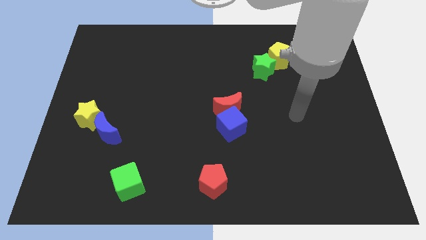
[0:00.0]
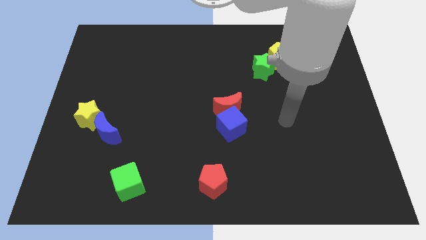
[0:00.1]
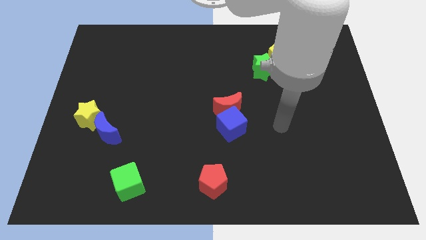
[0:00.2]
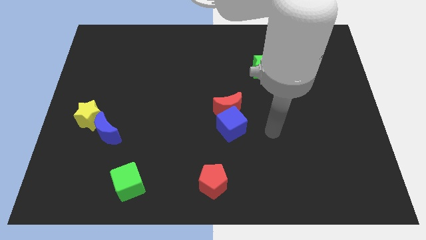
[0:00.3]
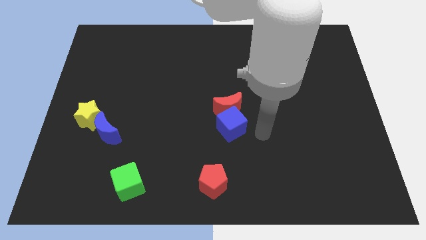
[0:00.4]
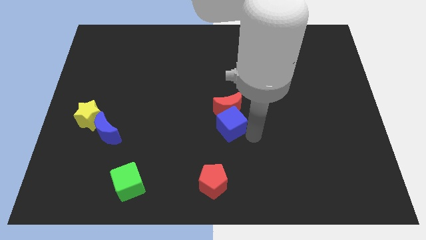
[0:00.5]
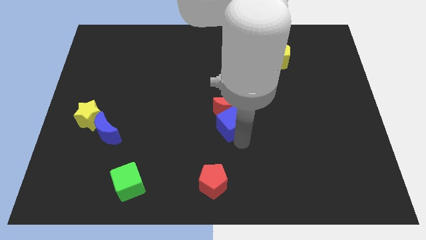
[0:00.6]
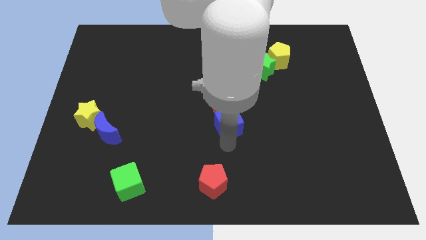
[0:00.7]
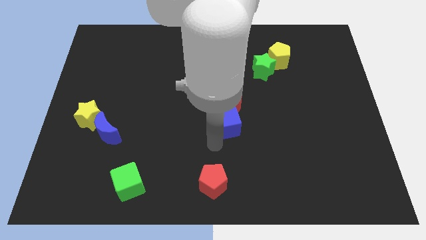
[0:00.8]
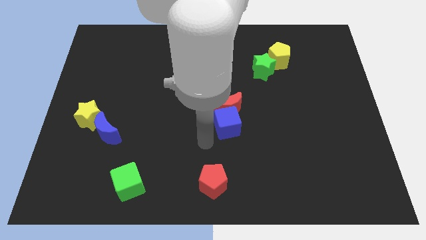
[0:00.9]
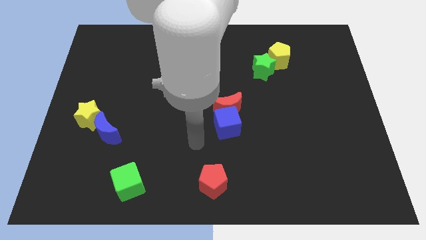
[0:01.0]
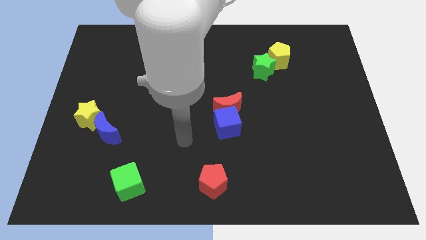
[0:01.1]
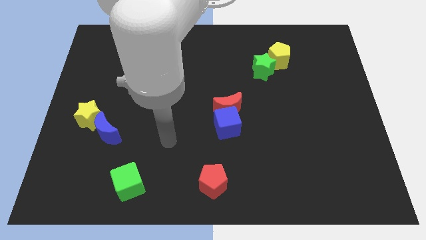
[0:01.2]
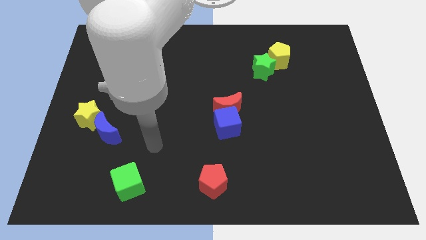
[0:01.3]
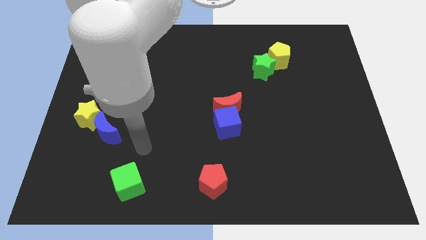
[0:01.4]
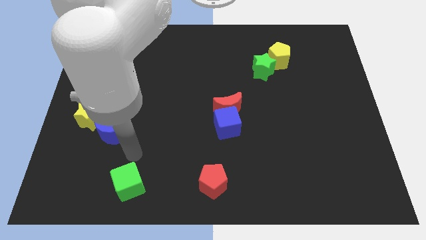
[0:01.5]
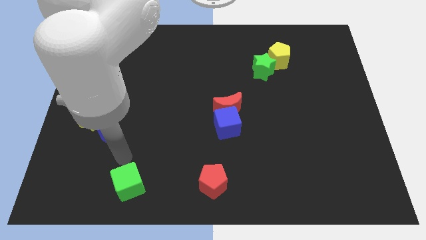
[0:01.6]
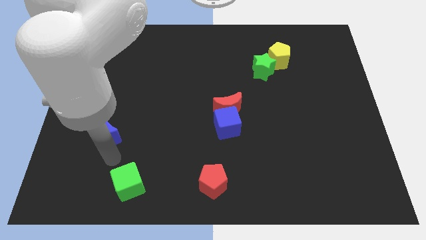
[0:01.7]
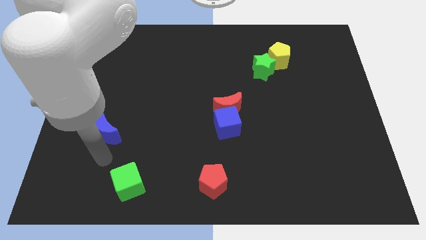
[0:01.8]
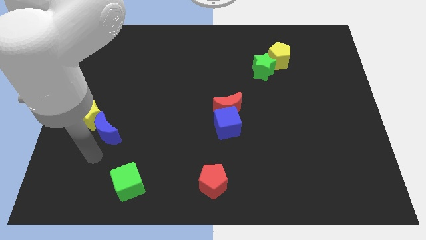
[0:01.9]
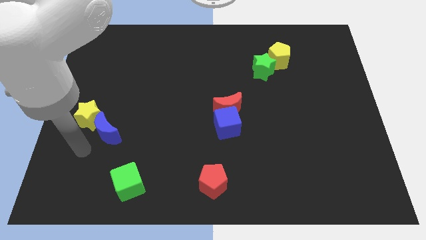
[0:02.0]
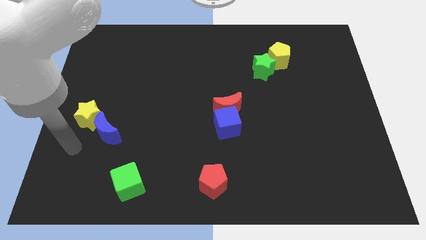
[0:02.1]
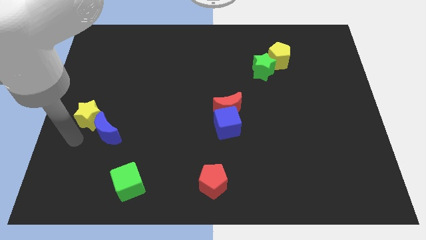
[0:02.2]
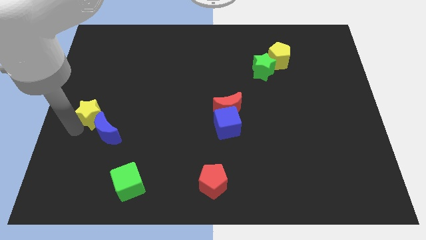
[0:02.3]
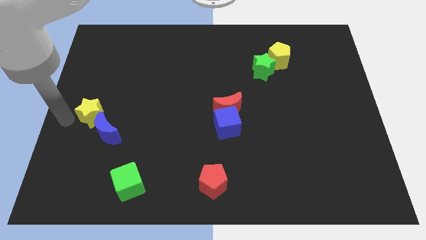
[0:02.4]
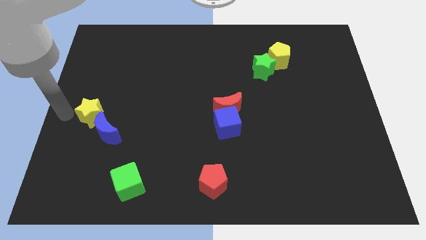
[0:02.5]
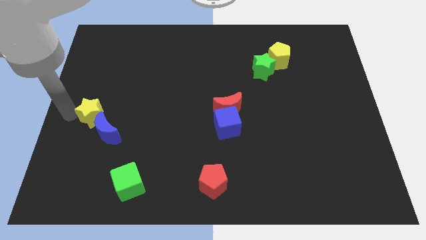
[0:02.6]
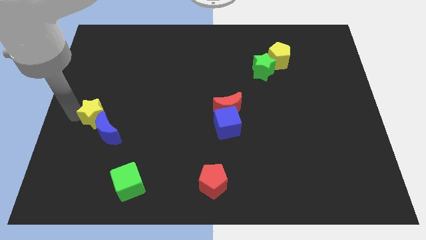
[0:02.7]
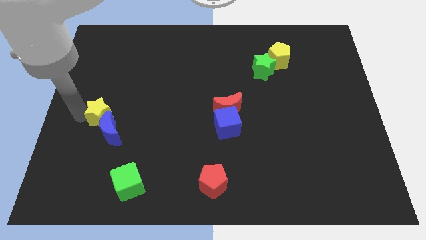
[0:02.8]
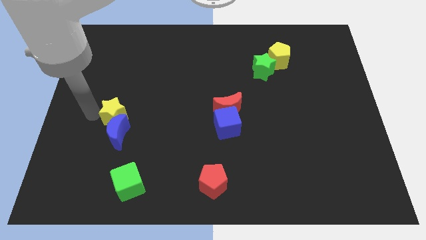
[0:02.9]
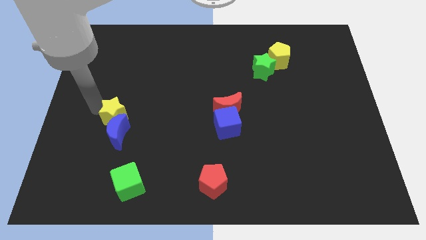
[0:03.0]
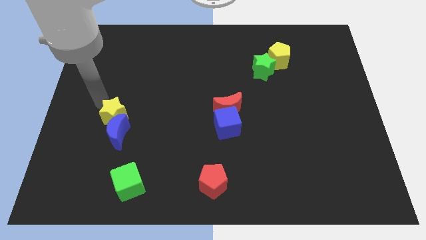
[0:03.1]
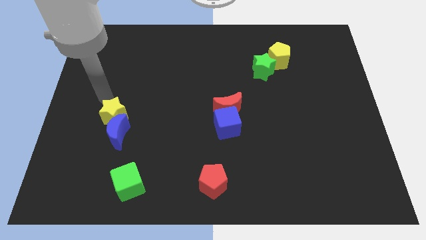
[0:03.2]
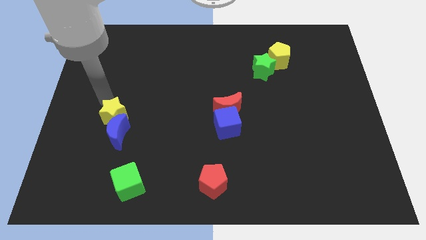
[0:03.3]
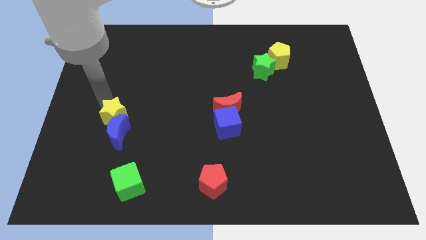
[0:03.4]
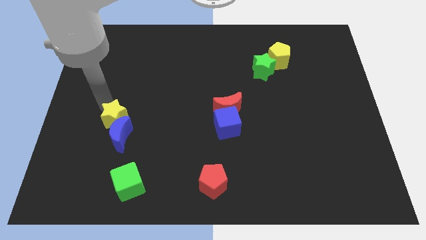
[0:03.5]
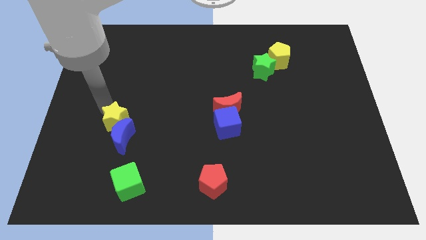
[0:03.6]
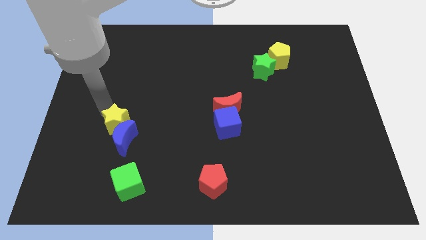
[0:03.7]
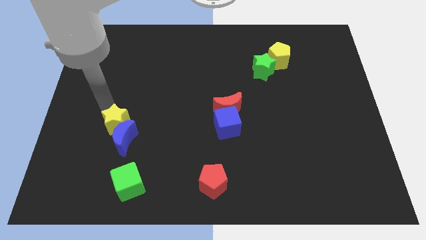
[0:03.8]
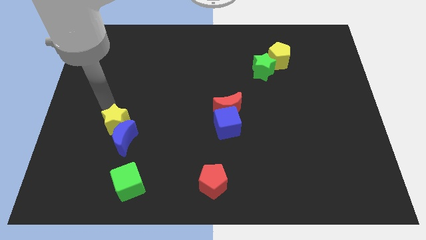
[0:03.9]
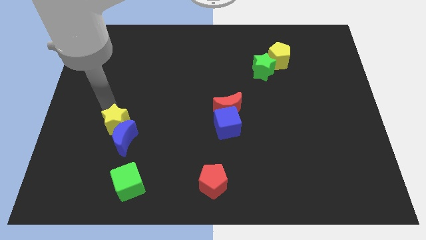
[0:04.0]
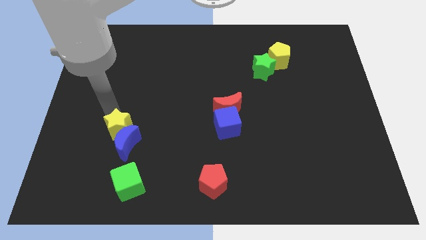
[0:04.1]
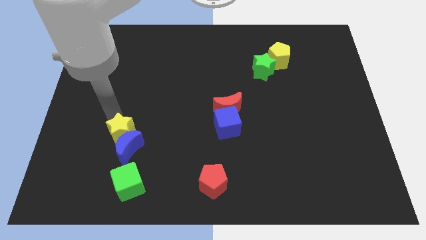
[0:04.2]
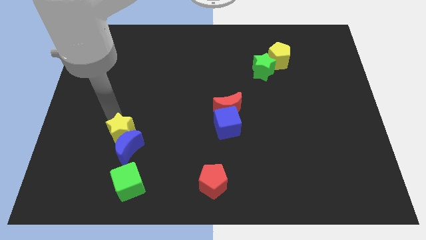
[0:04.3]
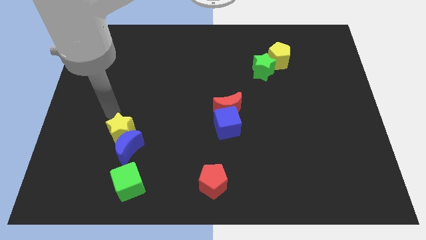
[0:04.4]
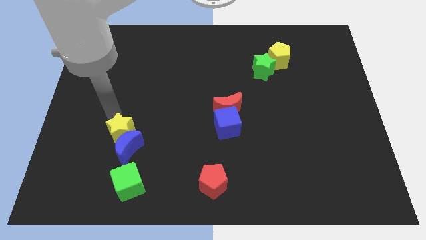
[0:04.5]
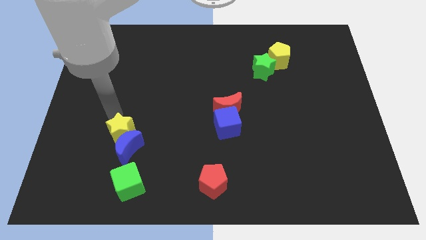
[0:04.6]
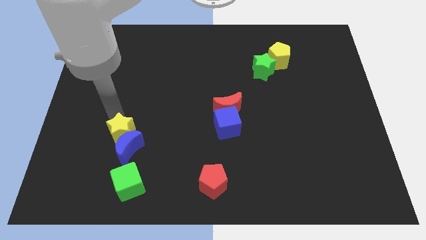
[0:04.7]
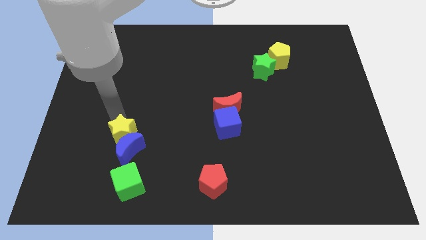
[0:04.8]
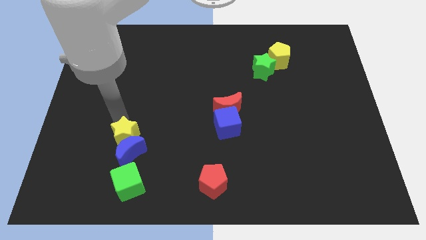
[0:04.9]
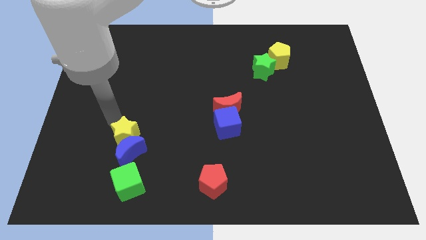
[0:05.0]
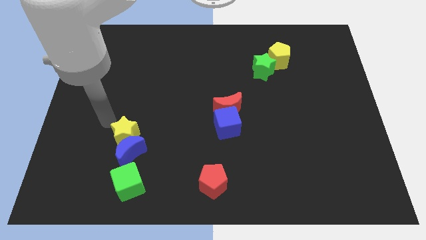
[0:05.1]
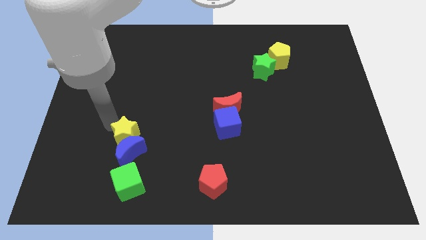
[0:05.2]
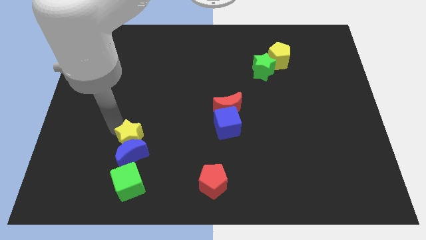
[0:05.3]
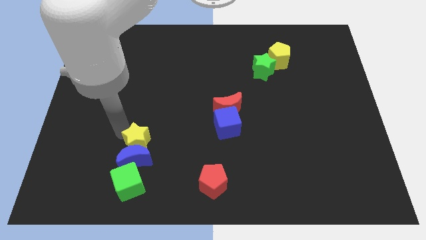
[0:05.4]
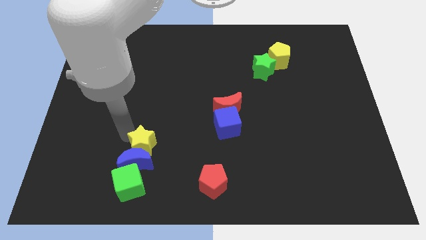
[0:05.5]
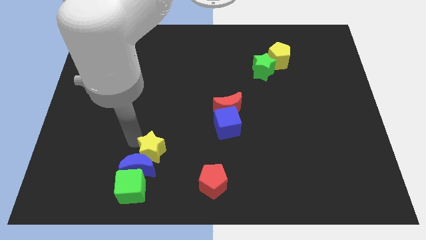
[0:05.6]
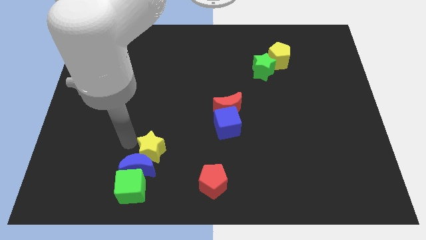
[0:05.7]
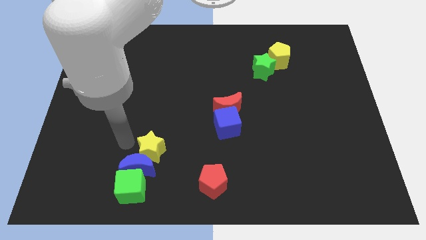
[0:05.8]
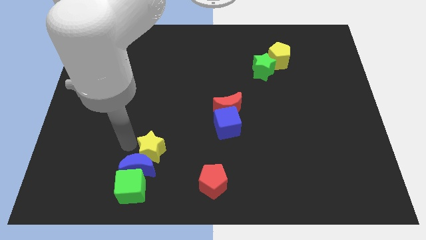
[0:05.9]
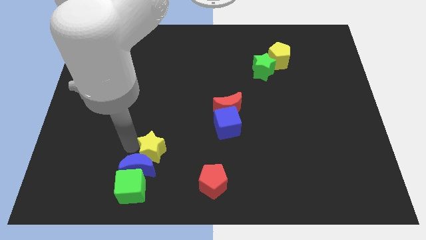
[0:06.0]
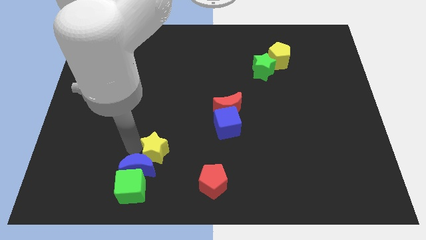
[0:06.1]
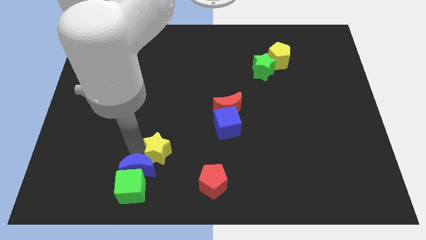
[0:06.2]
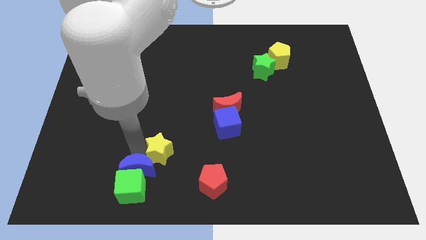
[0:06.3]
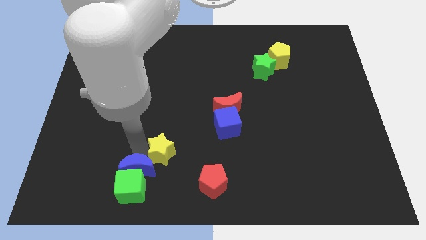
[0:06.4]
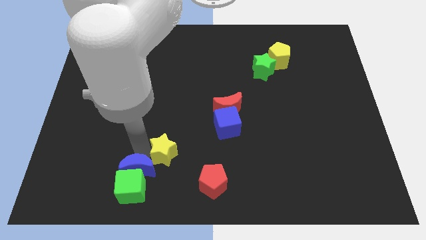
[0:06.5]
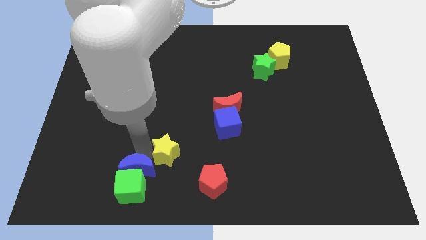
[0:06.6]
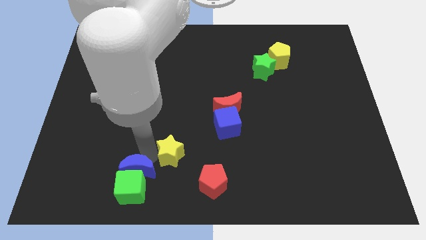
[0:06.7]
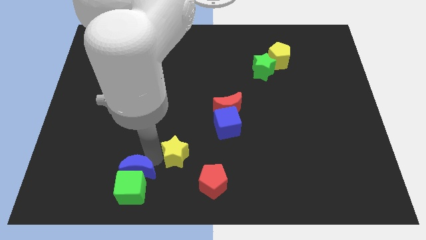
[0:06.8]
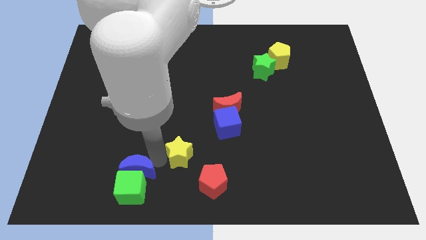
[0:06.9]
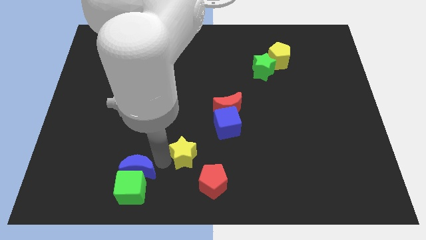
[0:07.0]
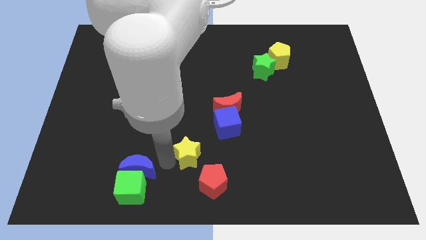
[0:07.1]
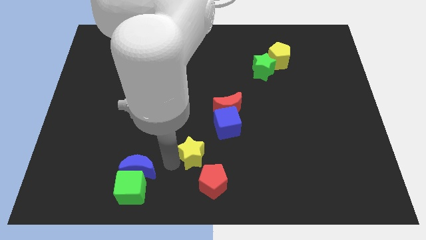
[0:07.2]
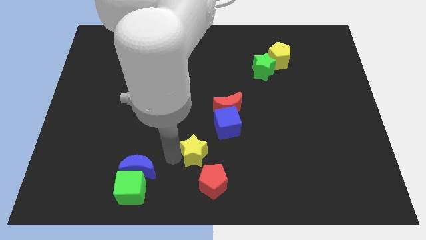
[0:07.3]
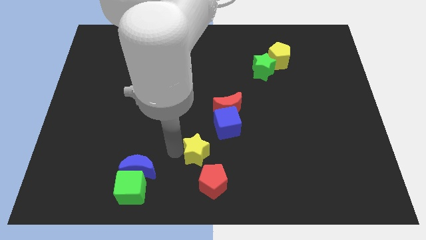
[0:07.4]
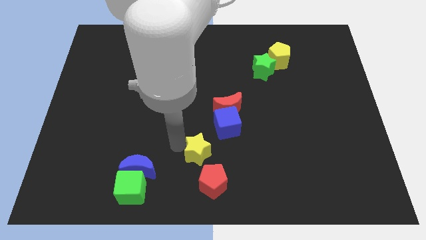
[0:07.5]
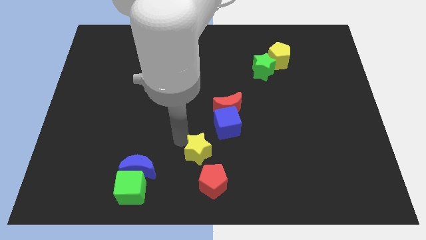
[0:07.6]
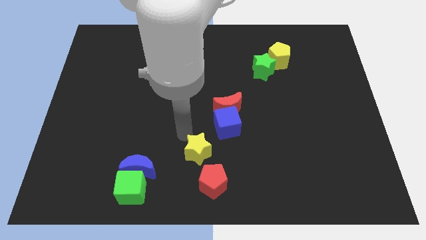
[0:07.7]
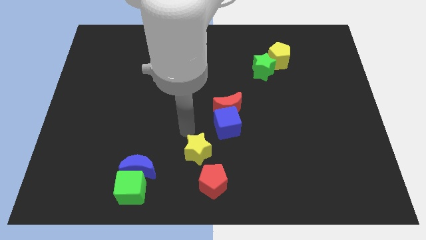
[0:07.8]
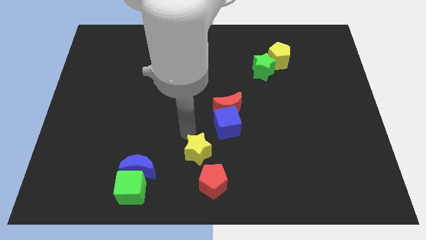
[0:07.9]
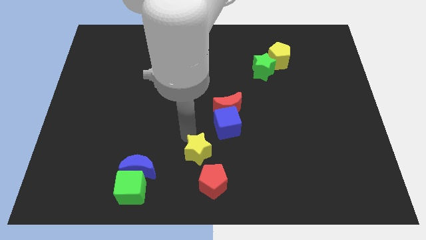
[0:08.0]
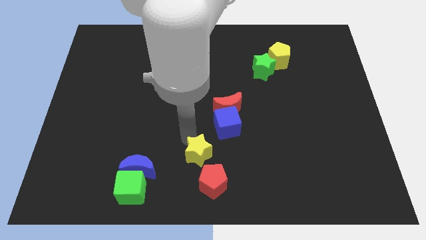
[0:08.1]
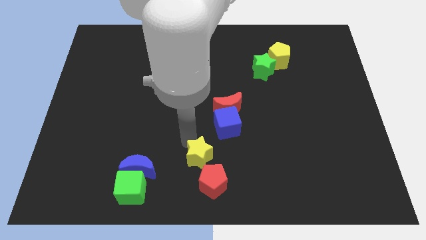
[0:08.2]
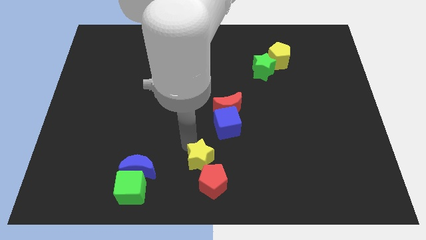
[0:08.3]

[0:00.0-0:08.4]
slide the yellow star towards the red pentagon
